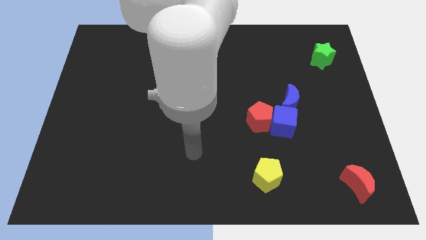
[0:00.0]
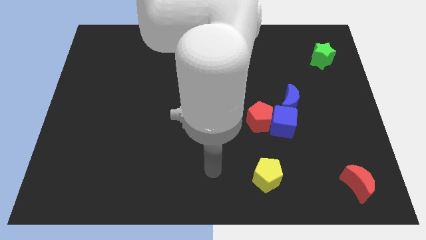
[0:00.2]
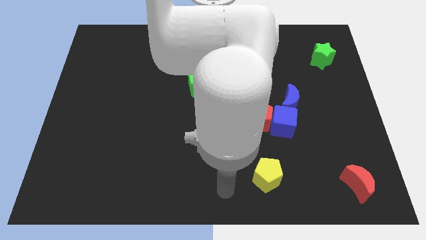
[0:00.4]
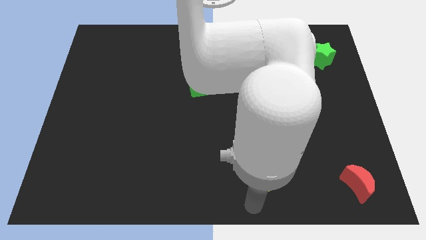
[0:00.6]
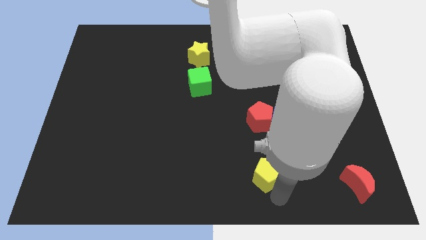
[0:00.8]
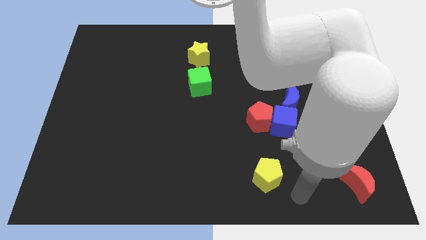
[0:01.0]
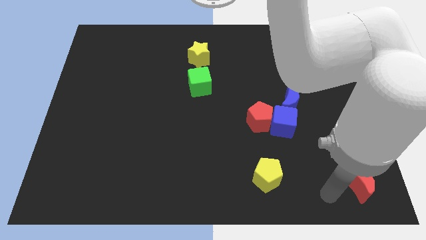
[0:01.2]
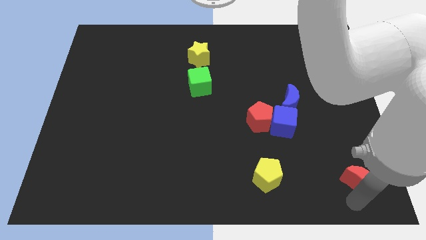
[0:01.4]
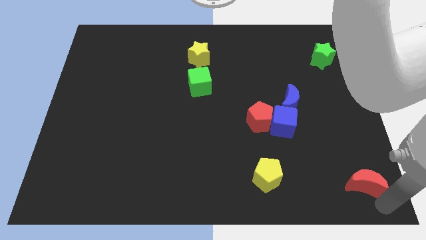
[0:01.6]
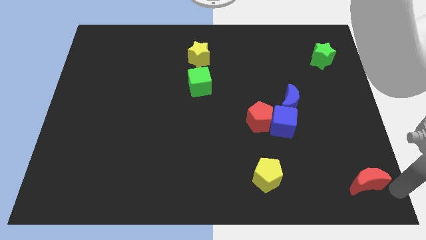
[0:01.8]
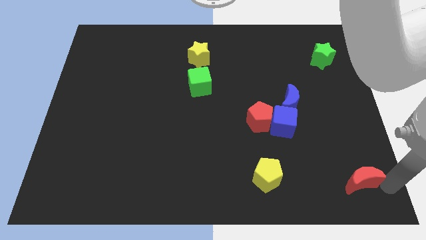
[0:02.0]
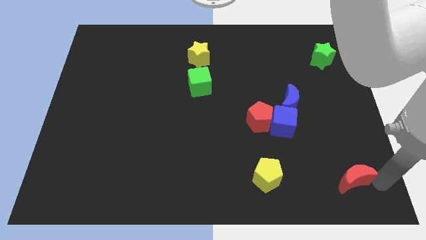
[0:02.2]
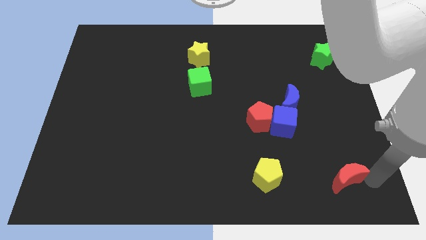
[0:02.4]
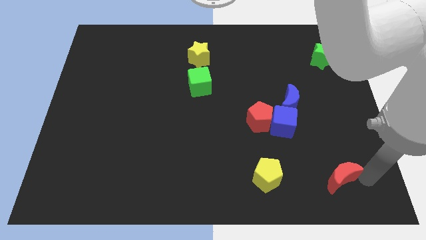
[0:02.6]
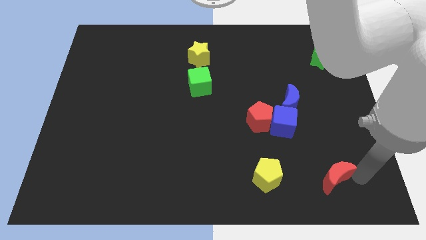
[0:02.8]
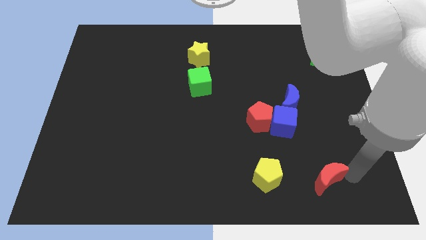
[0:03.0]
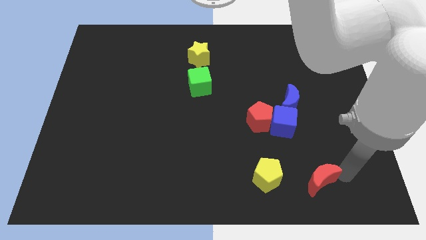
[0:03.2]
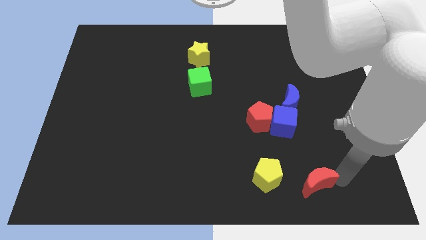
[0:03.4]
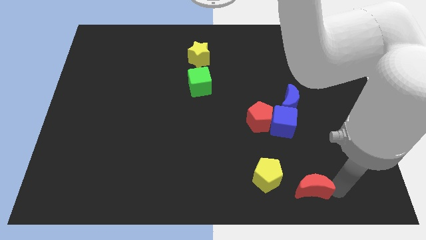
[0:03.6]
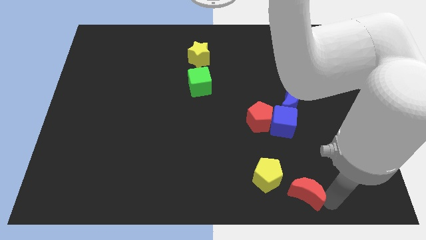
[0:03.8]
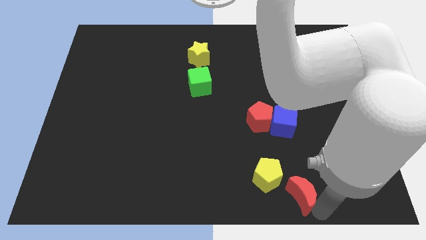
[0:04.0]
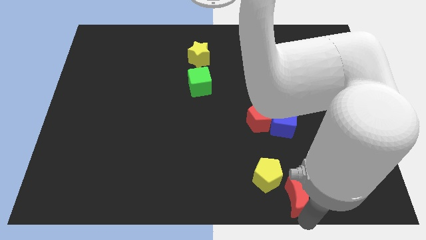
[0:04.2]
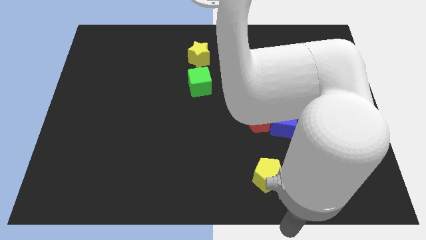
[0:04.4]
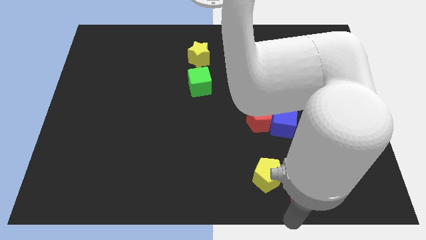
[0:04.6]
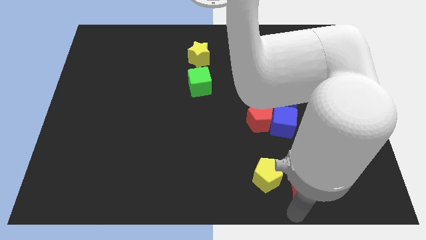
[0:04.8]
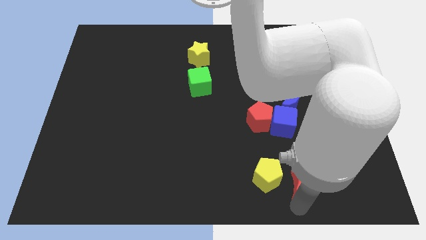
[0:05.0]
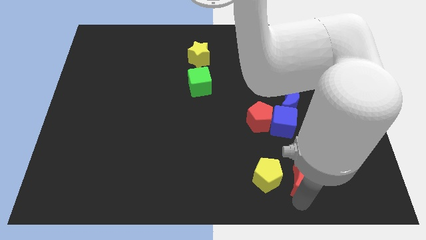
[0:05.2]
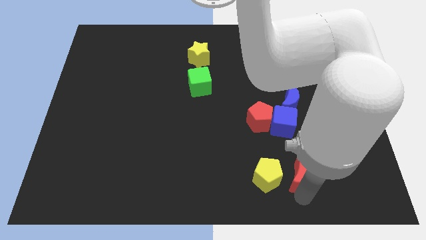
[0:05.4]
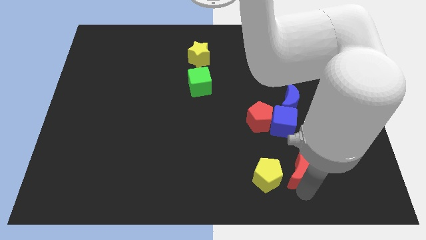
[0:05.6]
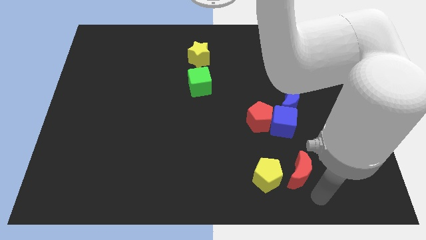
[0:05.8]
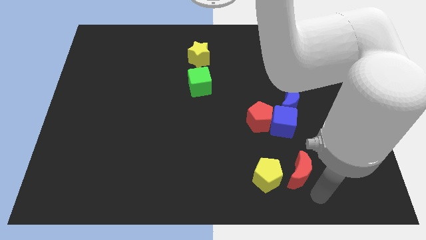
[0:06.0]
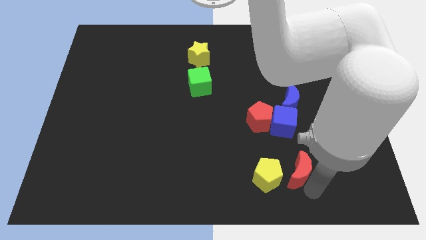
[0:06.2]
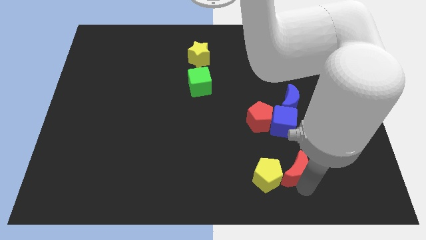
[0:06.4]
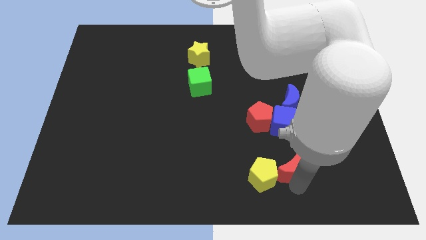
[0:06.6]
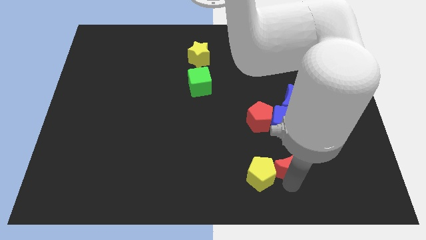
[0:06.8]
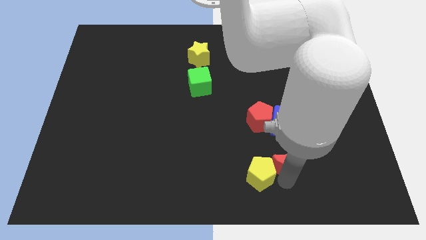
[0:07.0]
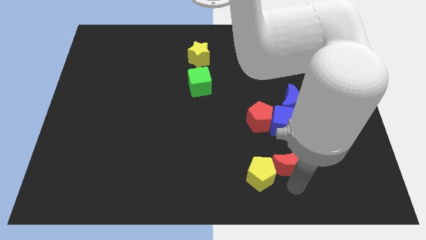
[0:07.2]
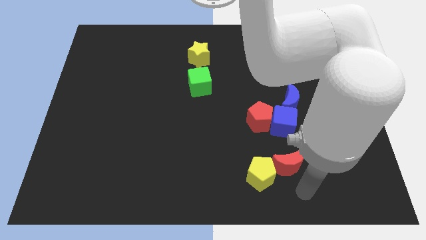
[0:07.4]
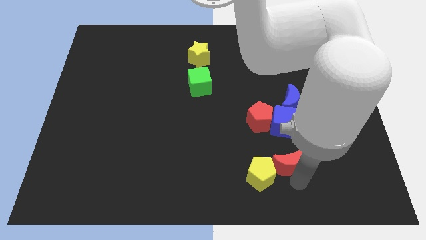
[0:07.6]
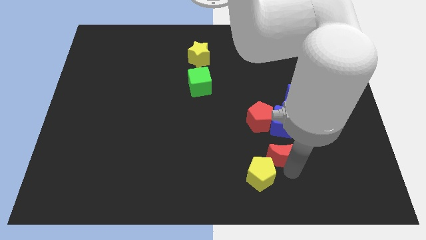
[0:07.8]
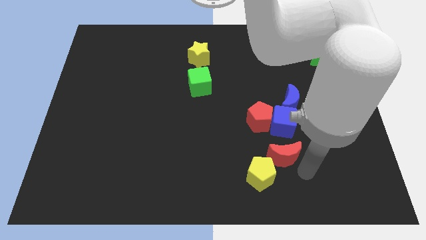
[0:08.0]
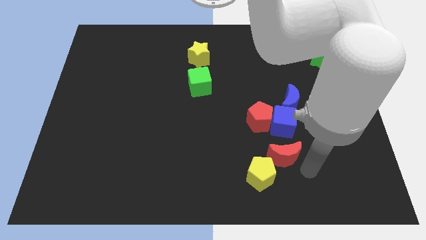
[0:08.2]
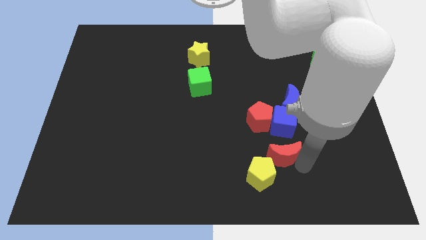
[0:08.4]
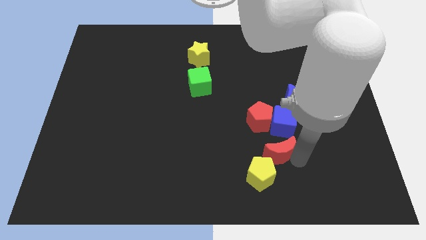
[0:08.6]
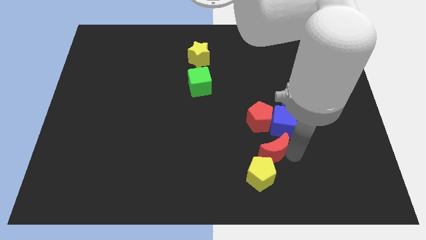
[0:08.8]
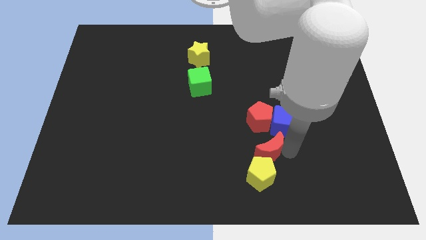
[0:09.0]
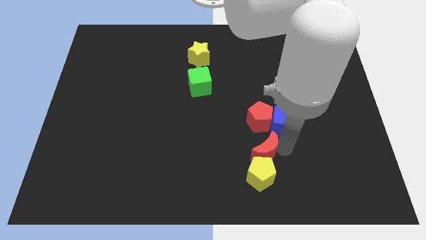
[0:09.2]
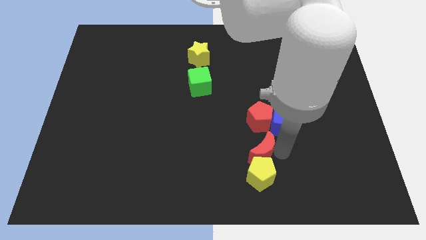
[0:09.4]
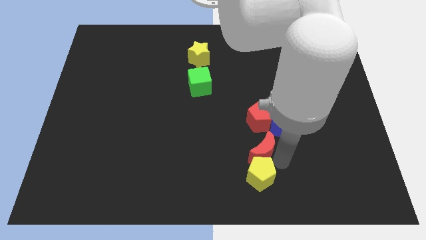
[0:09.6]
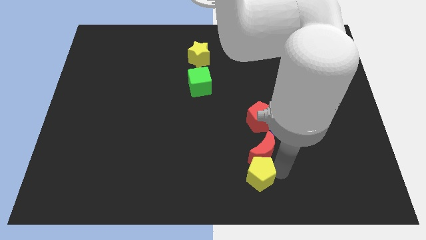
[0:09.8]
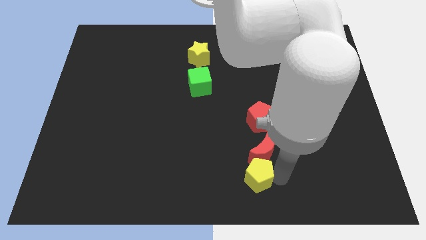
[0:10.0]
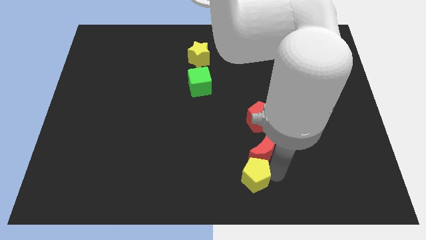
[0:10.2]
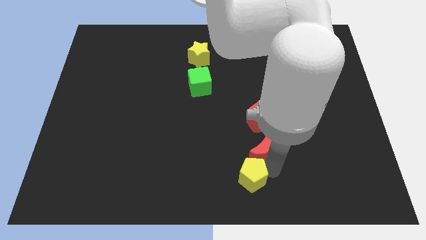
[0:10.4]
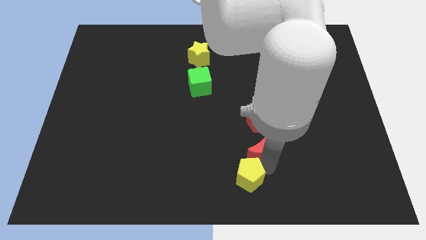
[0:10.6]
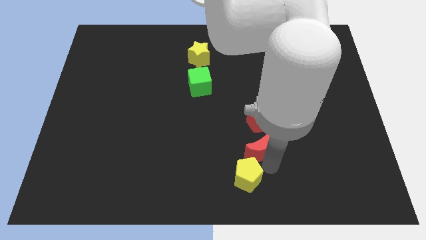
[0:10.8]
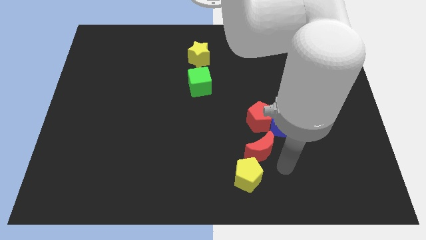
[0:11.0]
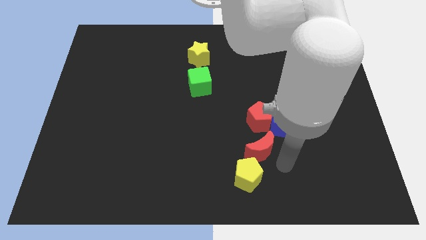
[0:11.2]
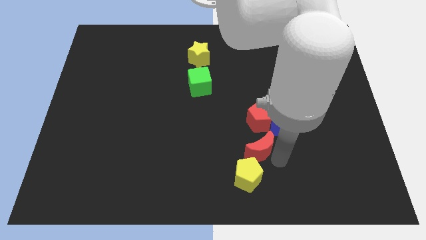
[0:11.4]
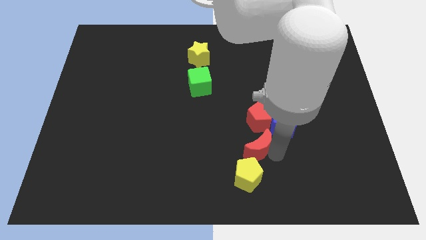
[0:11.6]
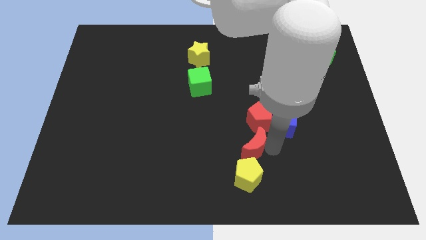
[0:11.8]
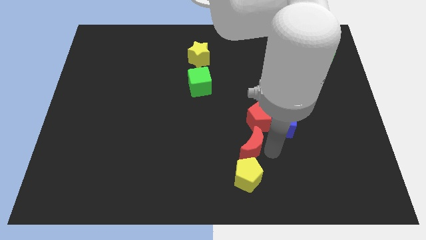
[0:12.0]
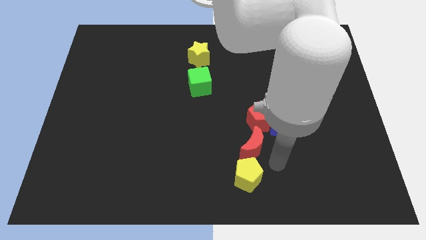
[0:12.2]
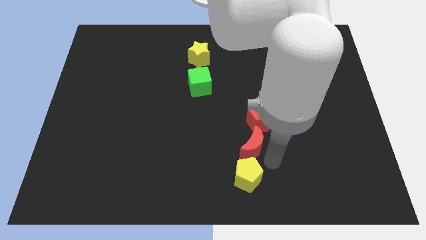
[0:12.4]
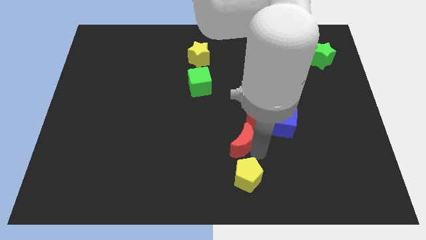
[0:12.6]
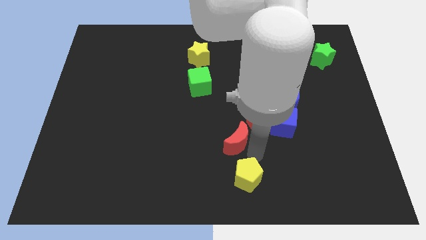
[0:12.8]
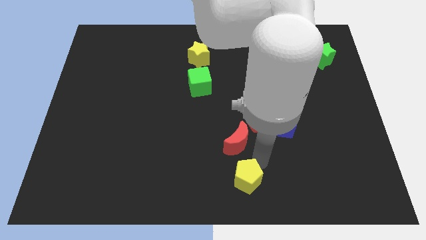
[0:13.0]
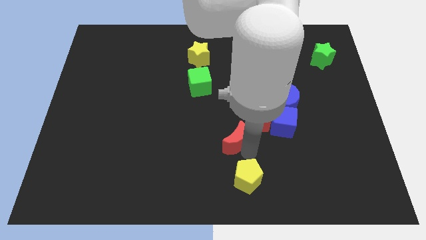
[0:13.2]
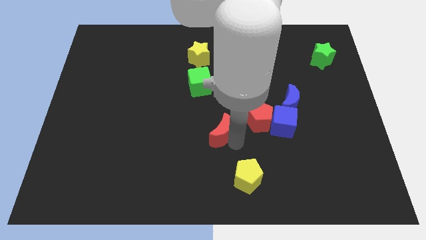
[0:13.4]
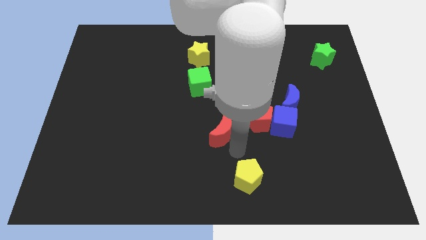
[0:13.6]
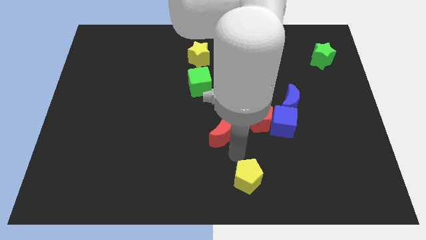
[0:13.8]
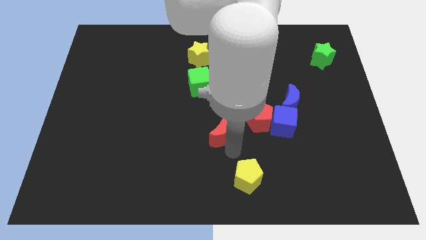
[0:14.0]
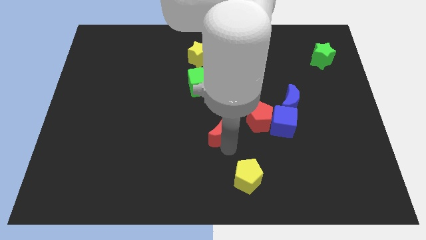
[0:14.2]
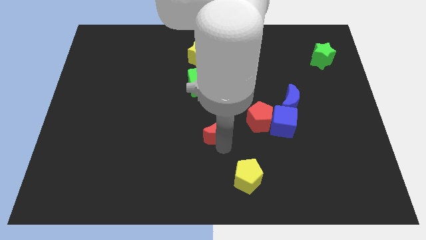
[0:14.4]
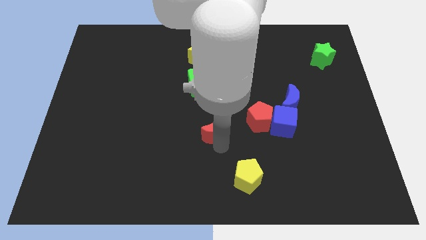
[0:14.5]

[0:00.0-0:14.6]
put the red moon to the bottom of the green cube

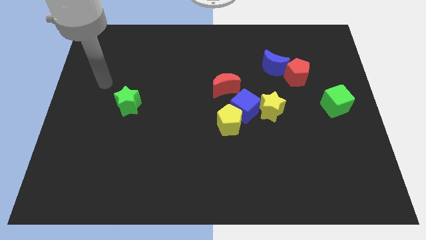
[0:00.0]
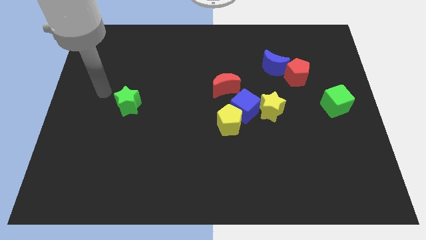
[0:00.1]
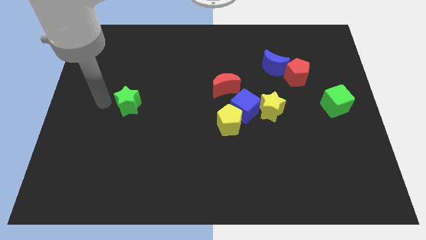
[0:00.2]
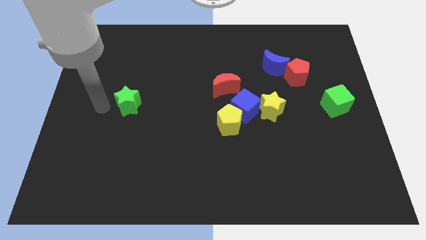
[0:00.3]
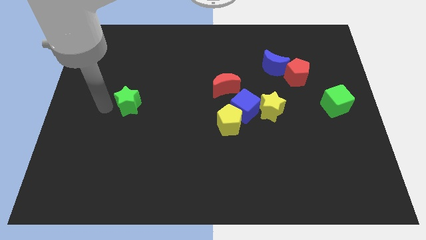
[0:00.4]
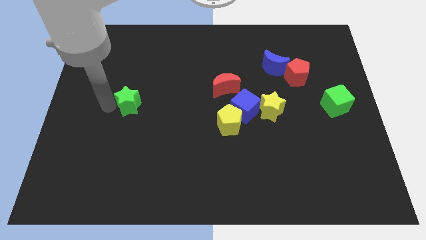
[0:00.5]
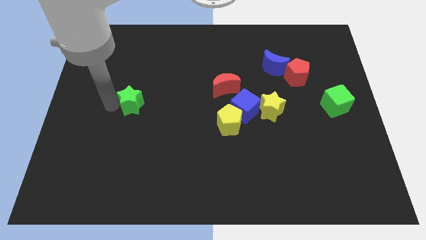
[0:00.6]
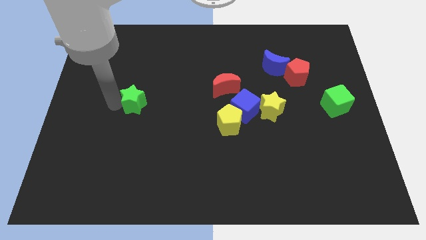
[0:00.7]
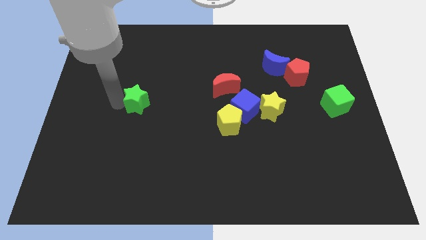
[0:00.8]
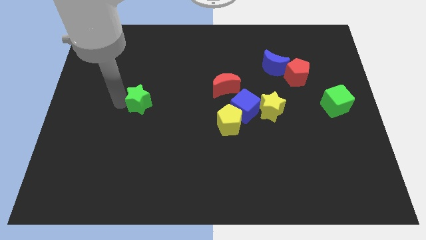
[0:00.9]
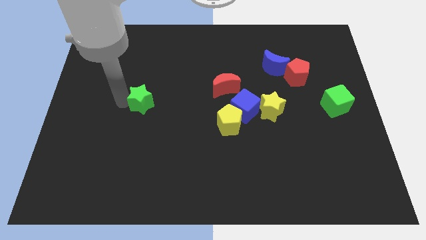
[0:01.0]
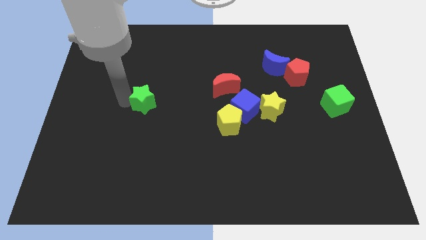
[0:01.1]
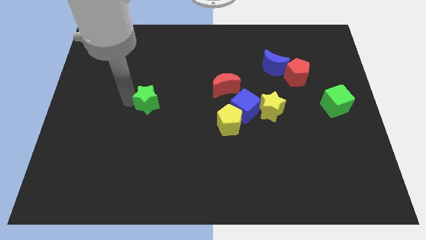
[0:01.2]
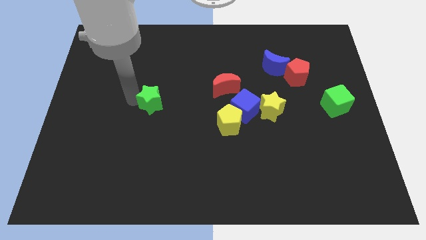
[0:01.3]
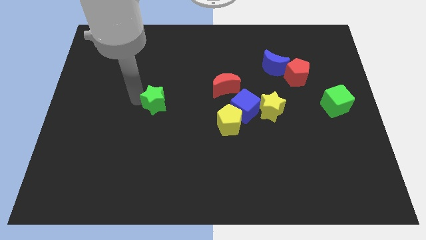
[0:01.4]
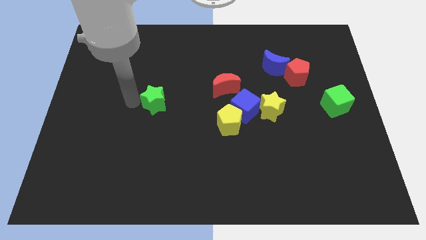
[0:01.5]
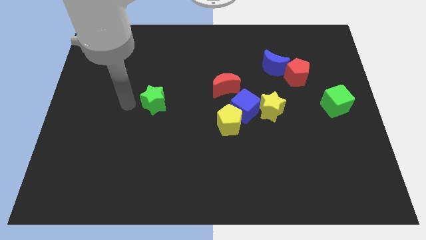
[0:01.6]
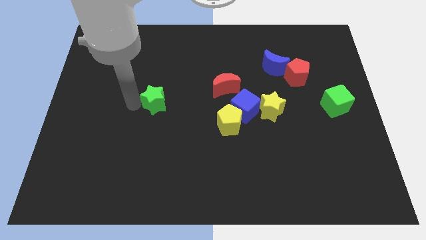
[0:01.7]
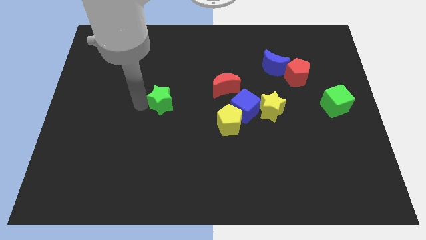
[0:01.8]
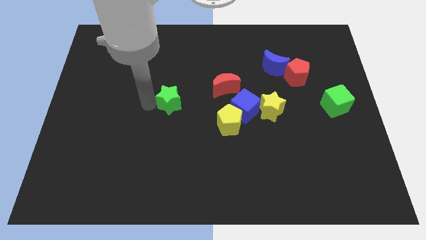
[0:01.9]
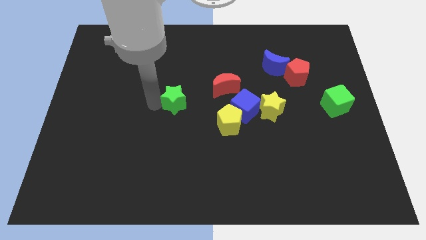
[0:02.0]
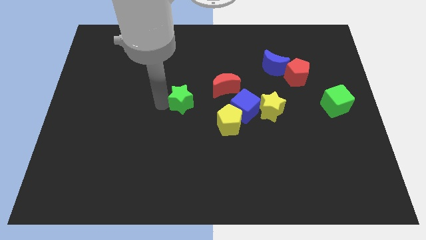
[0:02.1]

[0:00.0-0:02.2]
put the green star to the bottom left side of the red moon
